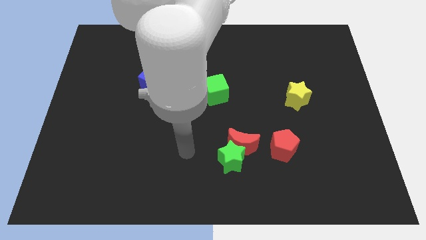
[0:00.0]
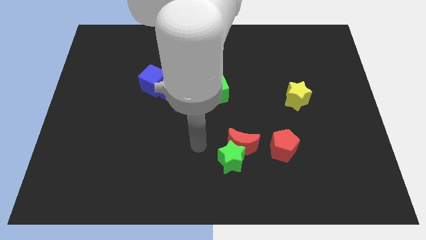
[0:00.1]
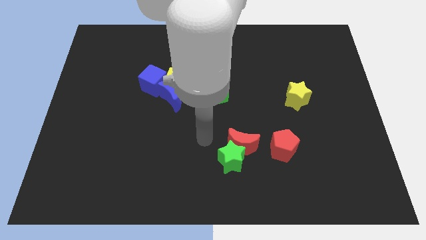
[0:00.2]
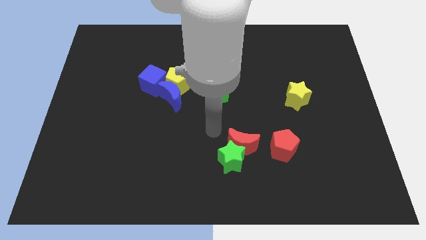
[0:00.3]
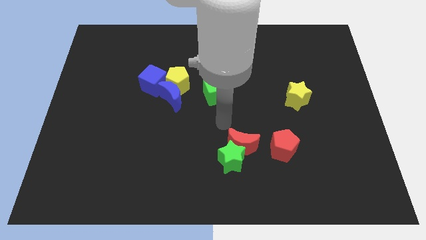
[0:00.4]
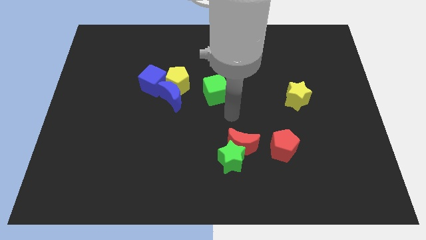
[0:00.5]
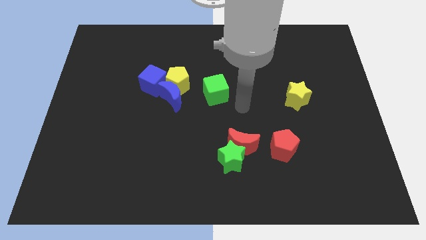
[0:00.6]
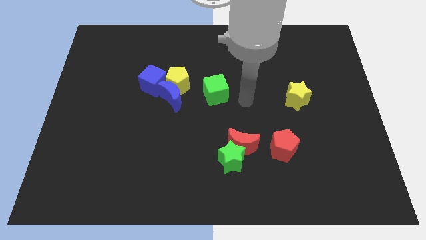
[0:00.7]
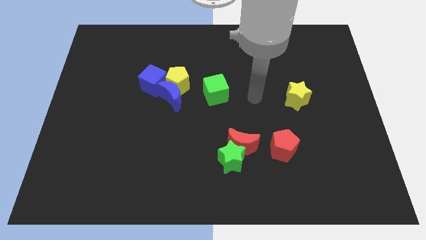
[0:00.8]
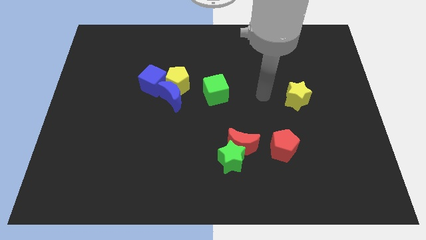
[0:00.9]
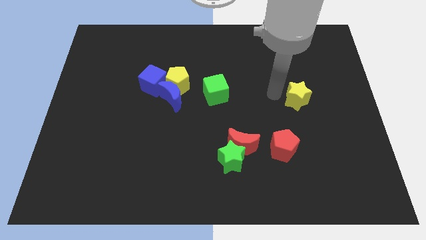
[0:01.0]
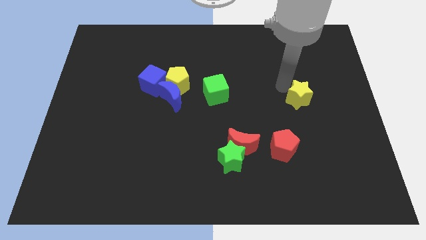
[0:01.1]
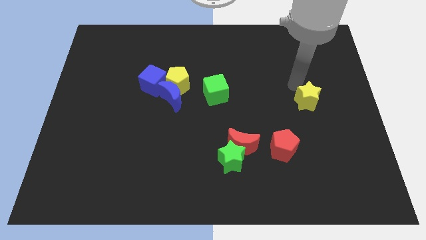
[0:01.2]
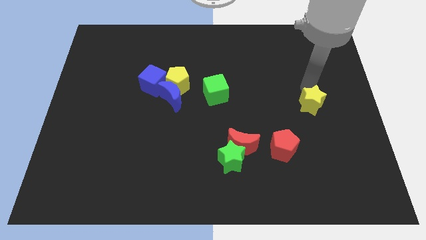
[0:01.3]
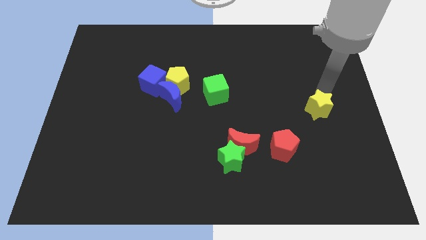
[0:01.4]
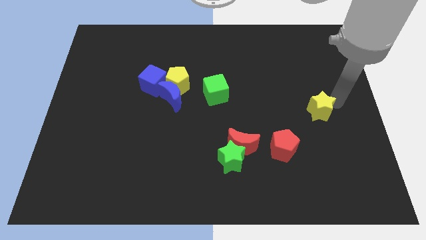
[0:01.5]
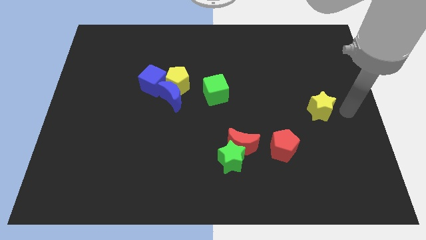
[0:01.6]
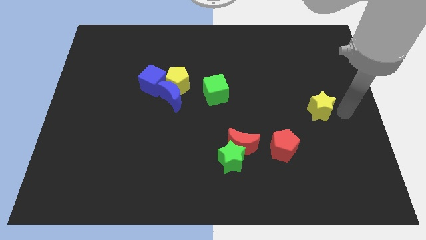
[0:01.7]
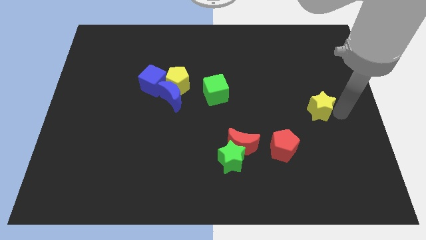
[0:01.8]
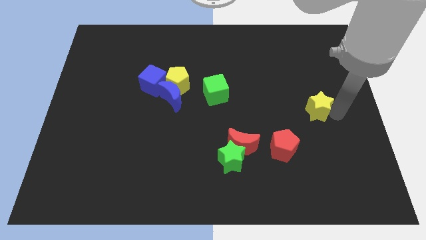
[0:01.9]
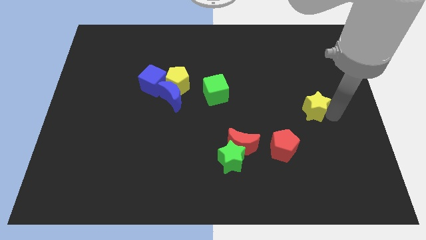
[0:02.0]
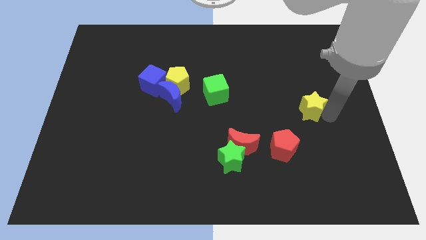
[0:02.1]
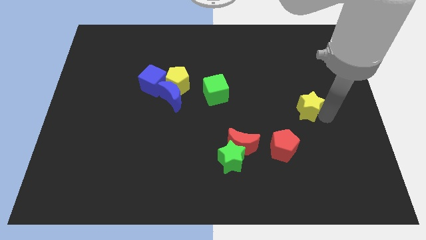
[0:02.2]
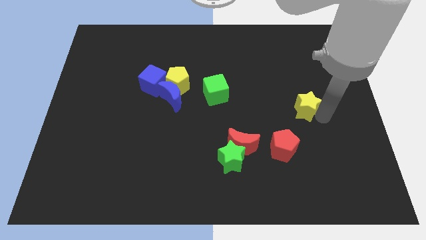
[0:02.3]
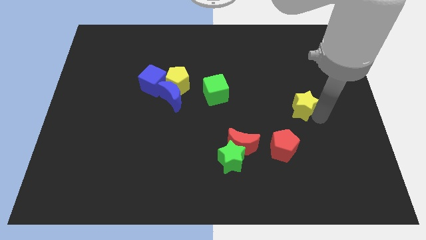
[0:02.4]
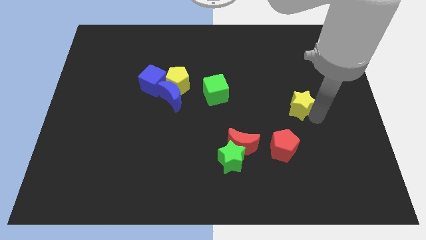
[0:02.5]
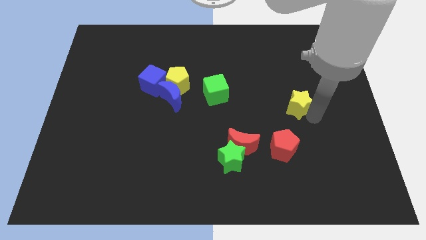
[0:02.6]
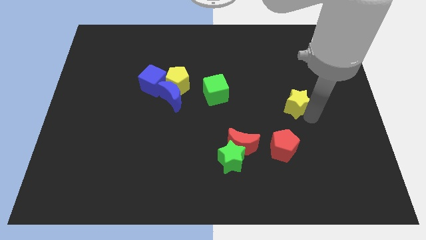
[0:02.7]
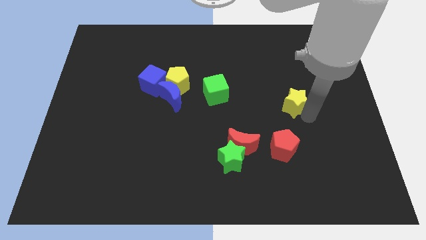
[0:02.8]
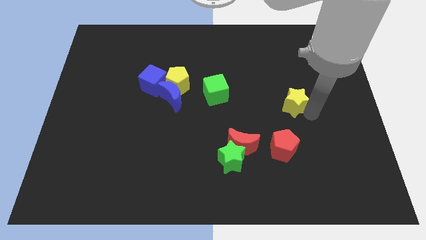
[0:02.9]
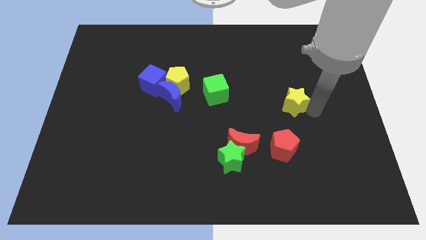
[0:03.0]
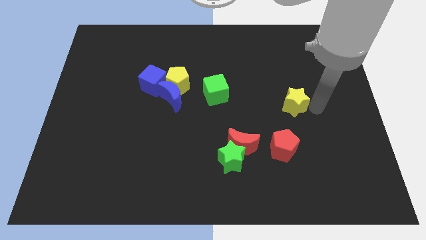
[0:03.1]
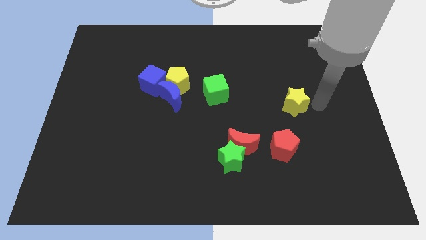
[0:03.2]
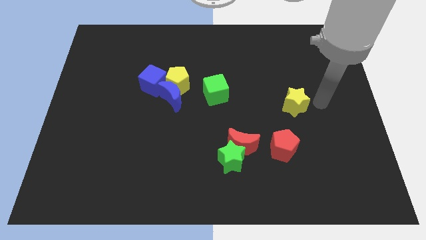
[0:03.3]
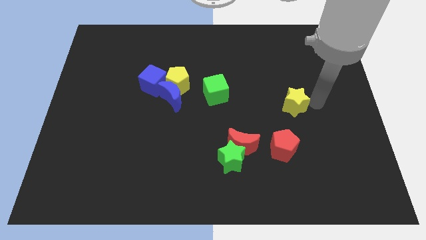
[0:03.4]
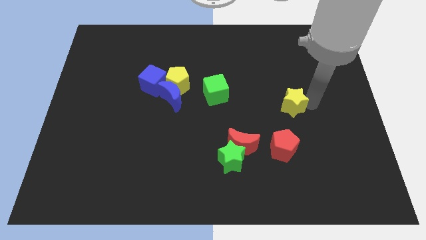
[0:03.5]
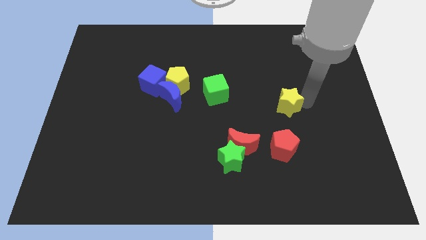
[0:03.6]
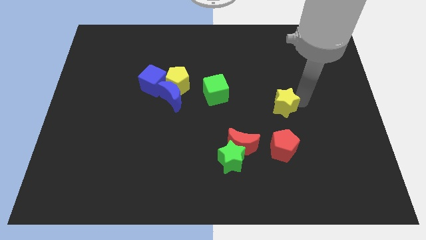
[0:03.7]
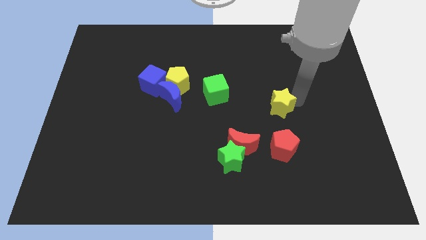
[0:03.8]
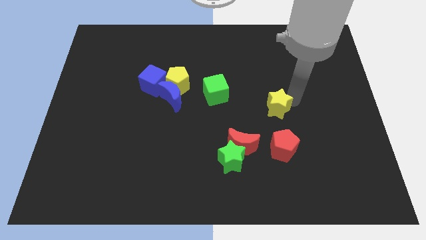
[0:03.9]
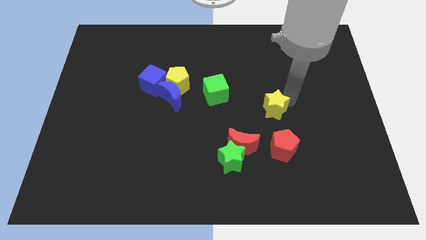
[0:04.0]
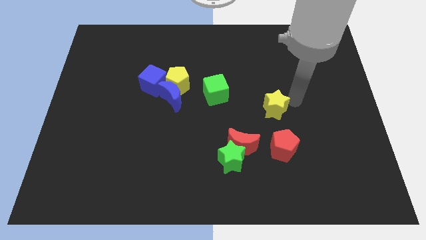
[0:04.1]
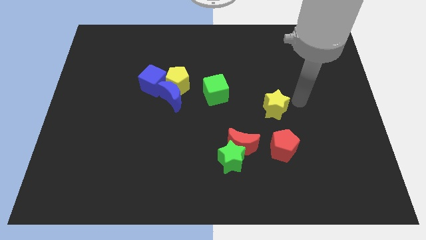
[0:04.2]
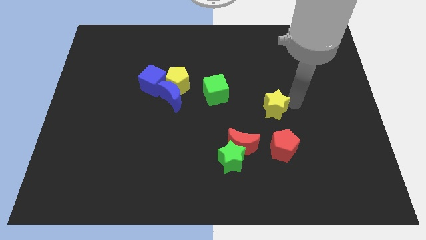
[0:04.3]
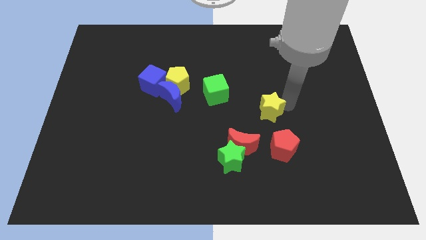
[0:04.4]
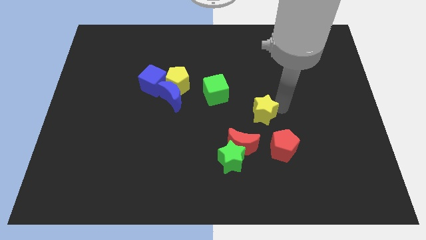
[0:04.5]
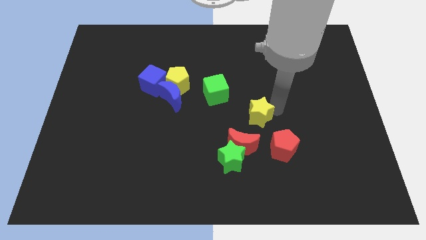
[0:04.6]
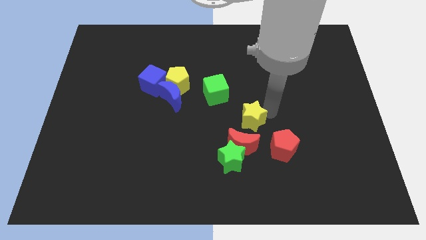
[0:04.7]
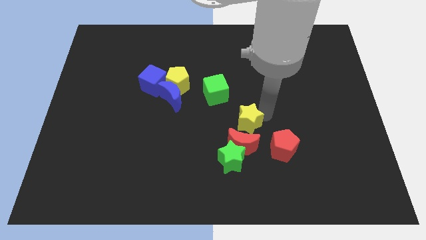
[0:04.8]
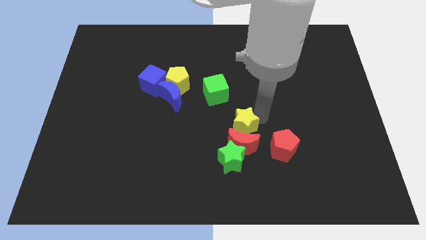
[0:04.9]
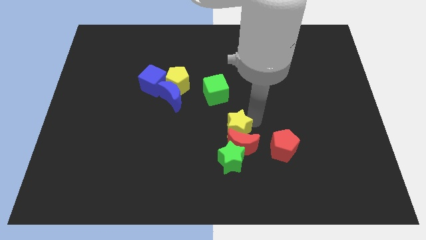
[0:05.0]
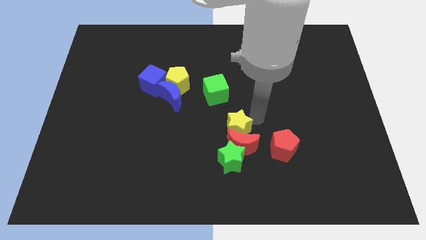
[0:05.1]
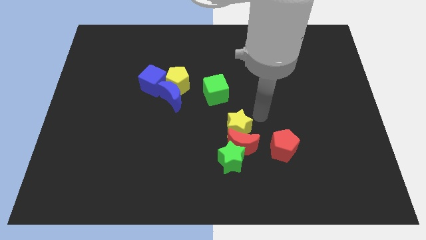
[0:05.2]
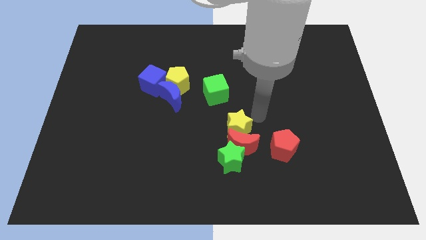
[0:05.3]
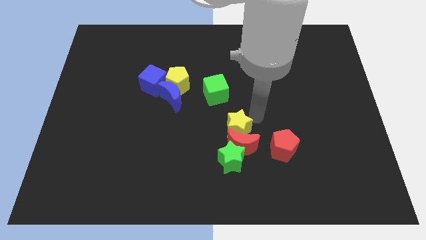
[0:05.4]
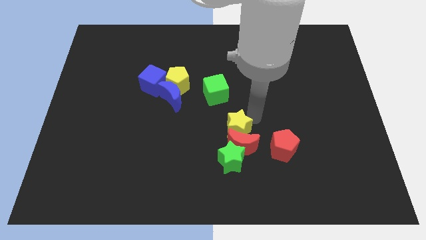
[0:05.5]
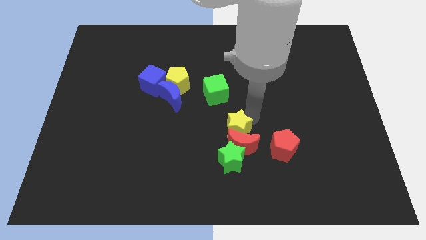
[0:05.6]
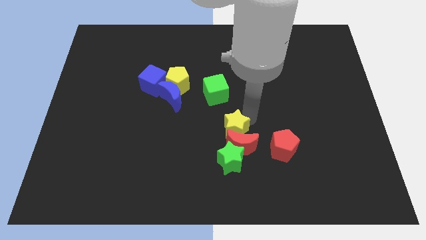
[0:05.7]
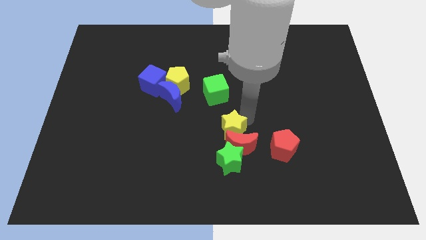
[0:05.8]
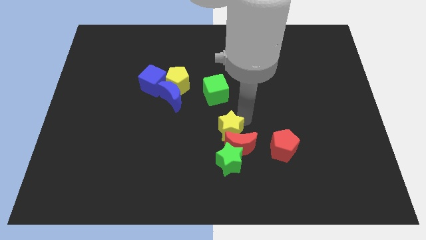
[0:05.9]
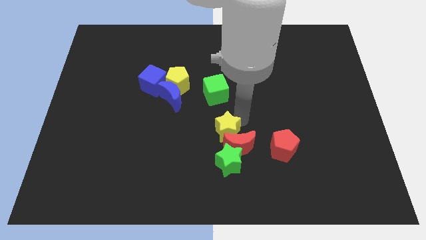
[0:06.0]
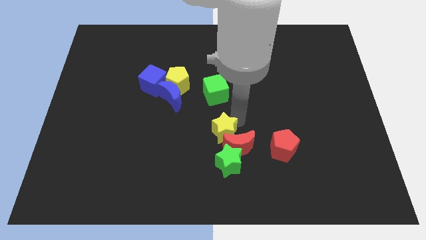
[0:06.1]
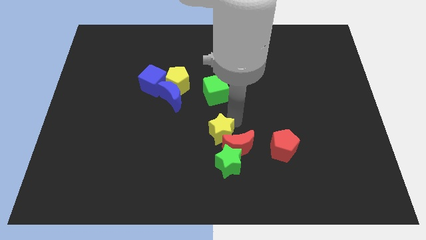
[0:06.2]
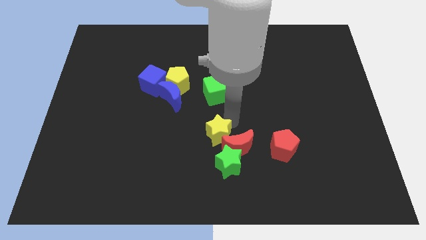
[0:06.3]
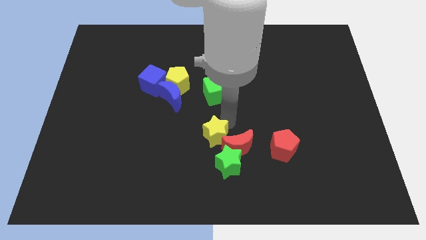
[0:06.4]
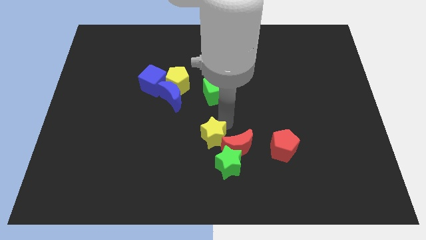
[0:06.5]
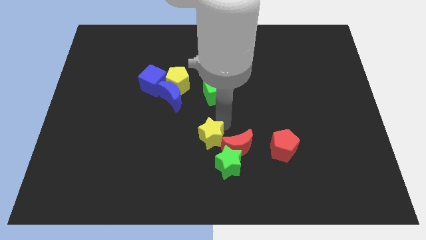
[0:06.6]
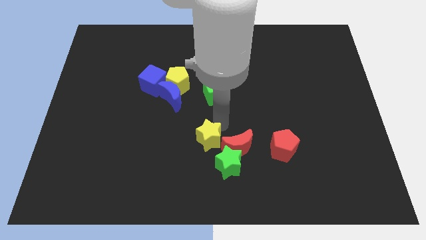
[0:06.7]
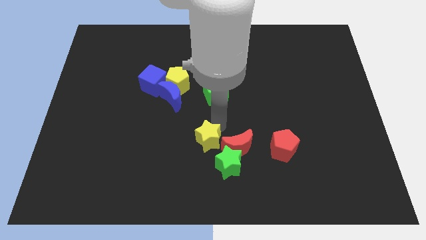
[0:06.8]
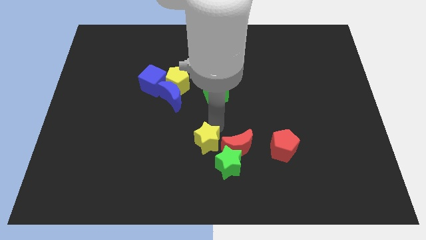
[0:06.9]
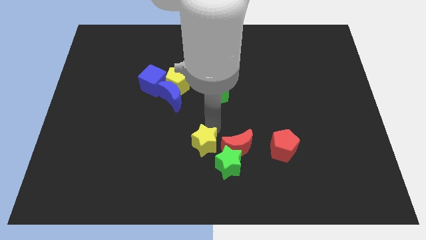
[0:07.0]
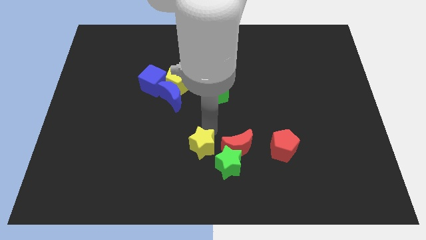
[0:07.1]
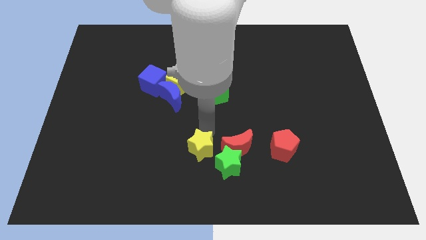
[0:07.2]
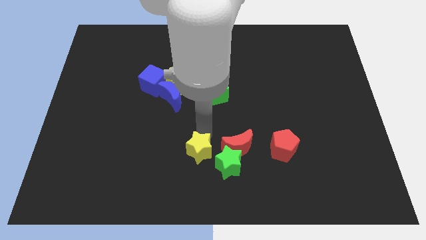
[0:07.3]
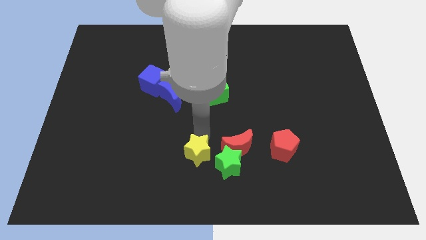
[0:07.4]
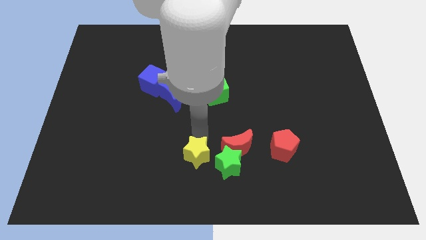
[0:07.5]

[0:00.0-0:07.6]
push the yellow star to the bottom
